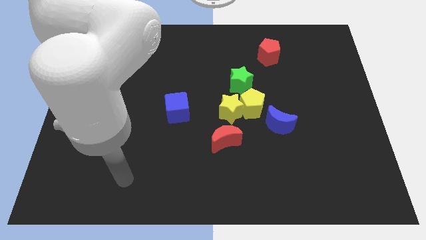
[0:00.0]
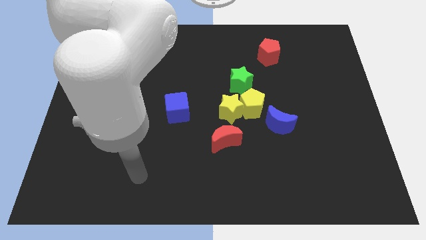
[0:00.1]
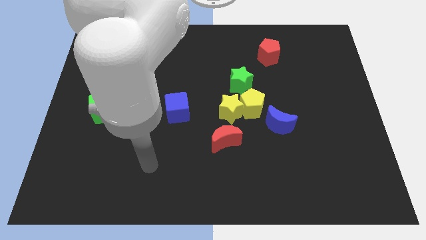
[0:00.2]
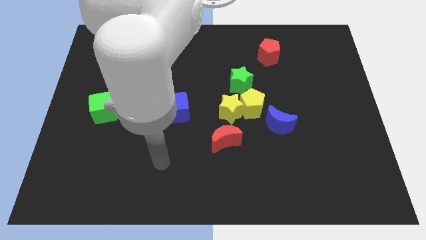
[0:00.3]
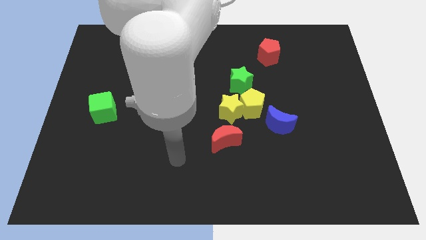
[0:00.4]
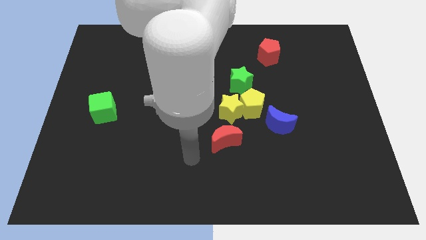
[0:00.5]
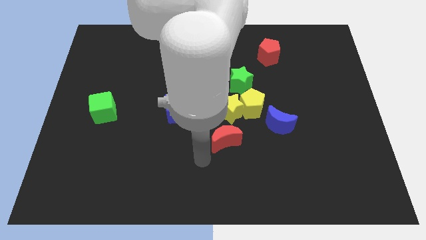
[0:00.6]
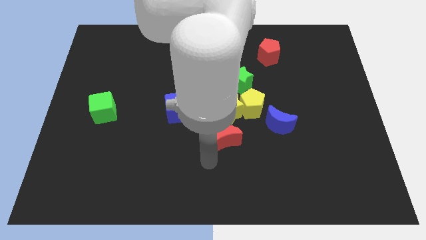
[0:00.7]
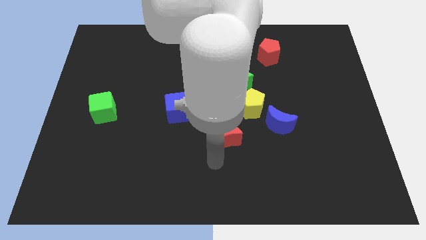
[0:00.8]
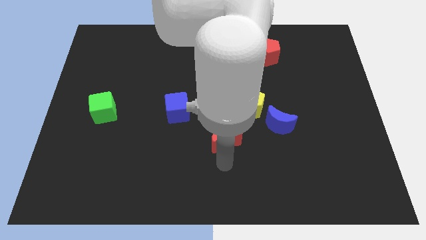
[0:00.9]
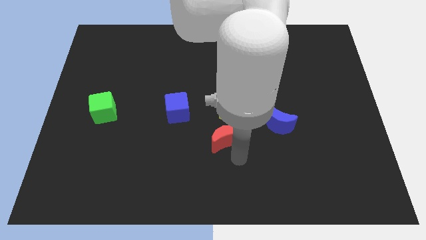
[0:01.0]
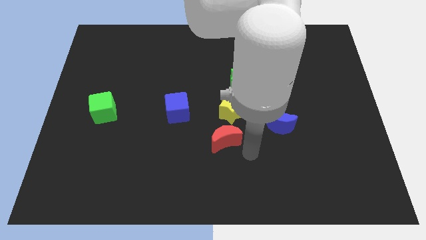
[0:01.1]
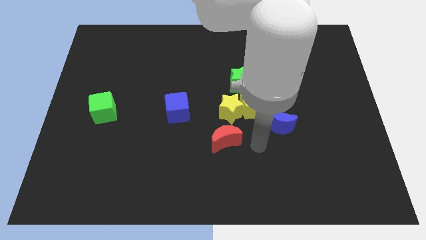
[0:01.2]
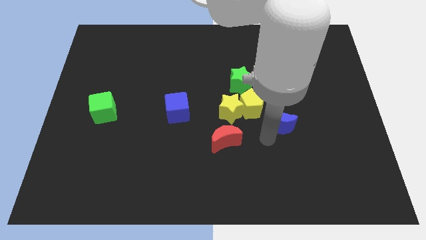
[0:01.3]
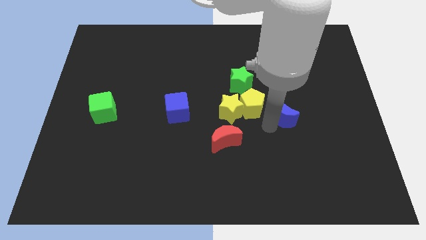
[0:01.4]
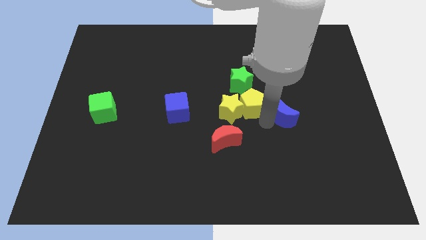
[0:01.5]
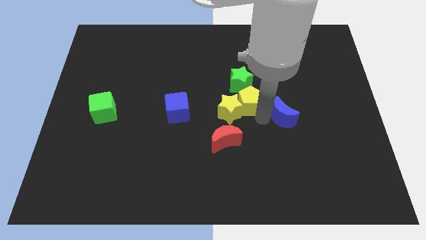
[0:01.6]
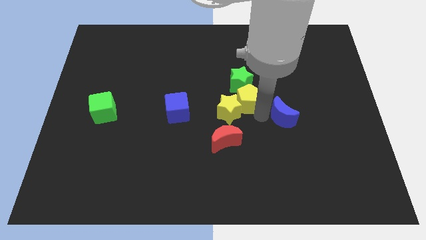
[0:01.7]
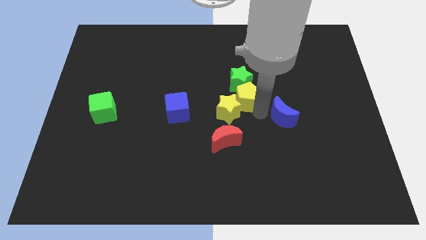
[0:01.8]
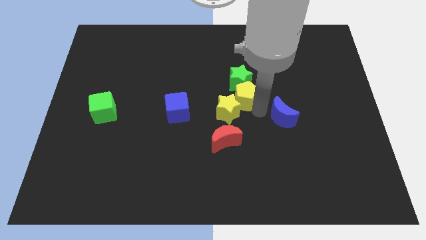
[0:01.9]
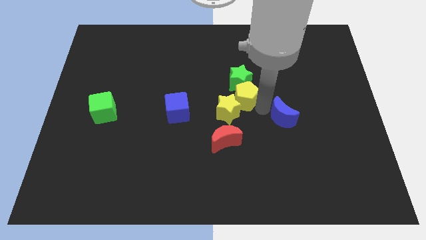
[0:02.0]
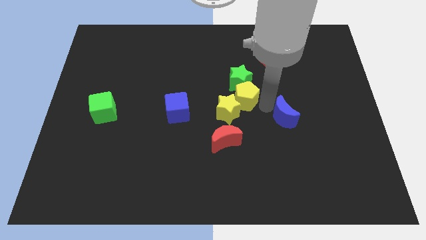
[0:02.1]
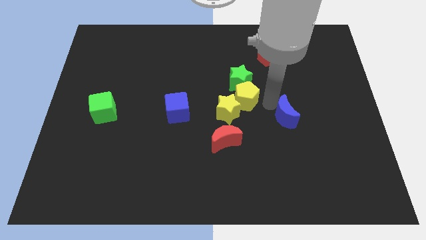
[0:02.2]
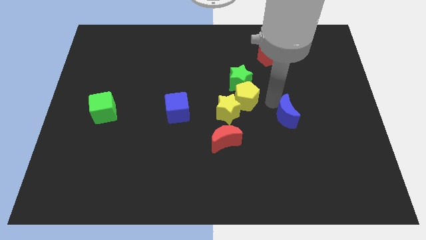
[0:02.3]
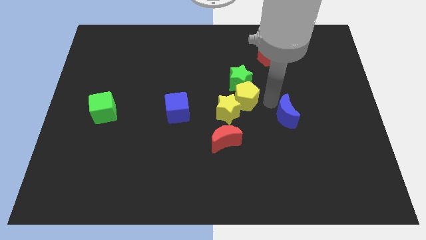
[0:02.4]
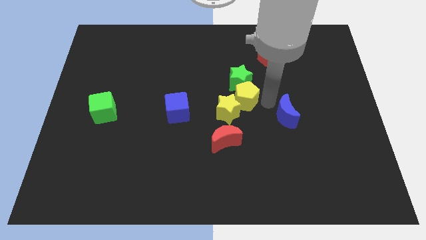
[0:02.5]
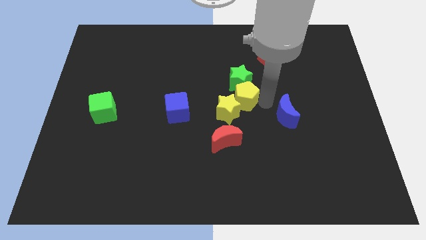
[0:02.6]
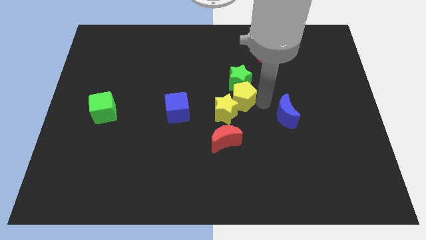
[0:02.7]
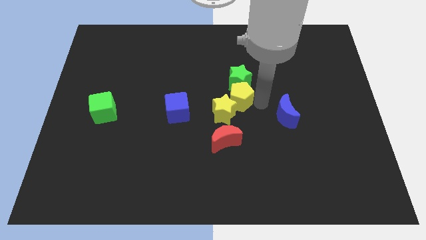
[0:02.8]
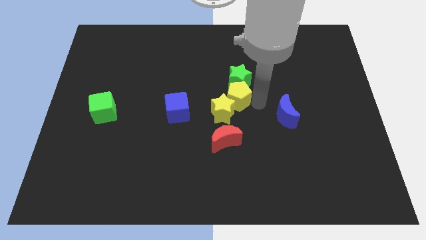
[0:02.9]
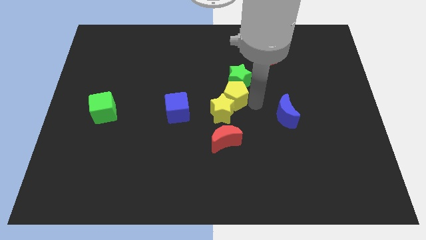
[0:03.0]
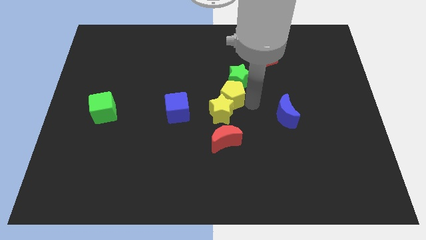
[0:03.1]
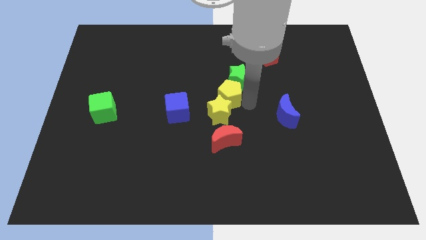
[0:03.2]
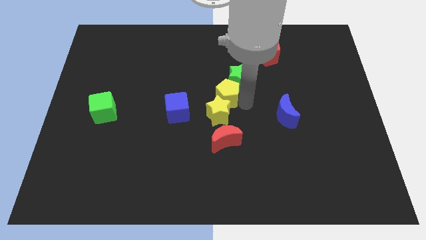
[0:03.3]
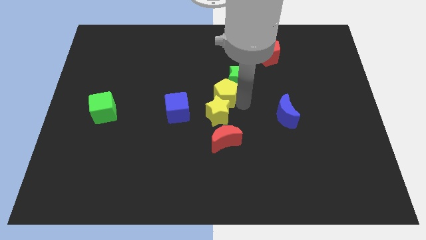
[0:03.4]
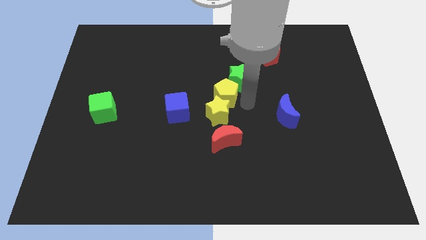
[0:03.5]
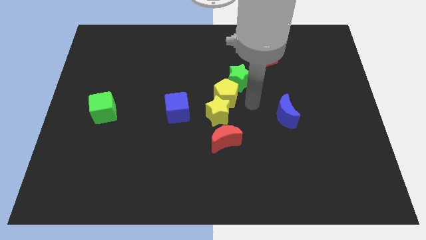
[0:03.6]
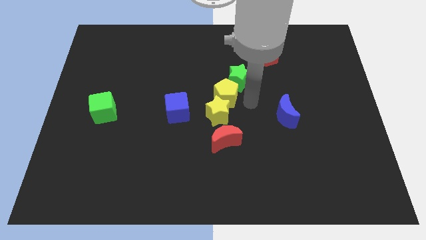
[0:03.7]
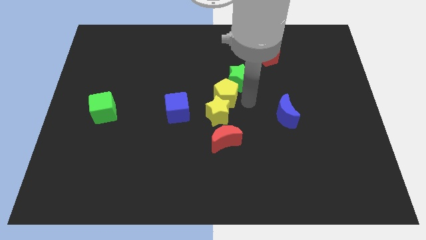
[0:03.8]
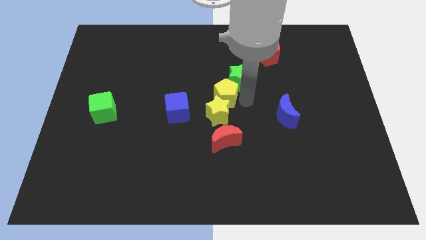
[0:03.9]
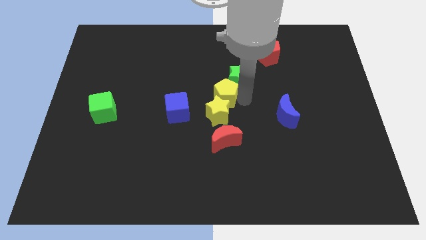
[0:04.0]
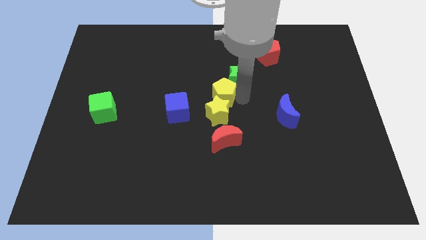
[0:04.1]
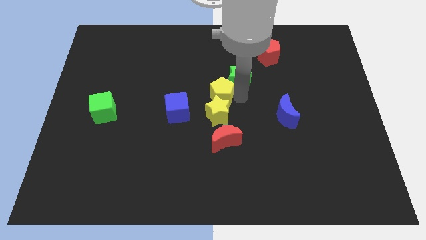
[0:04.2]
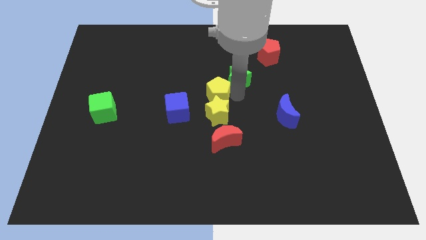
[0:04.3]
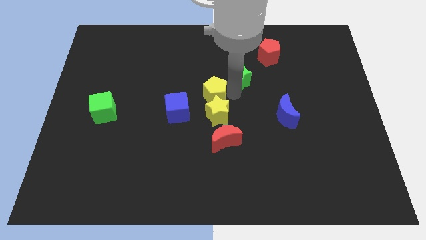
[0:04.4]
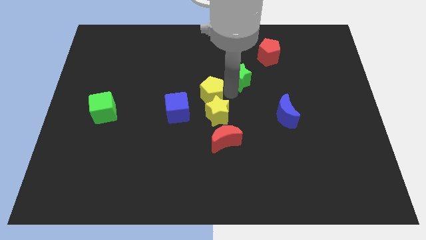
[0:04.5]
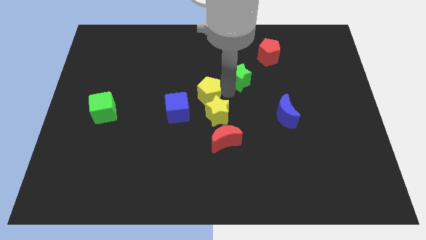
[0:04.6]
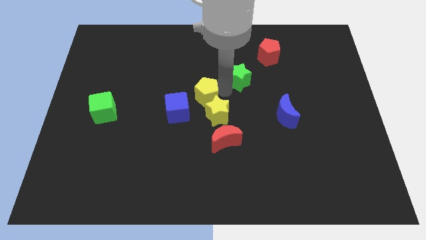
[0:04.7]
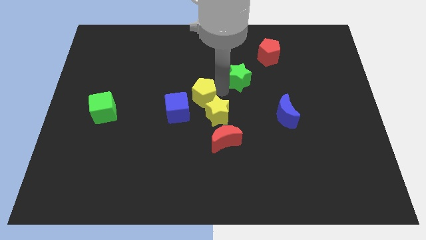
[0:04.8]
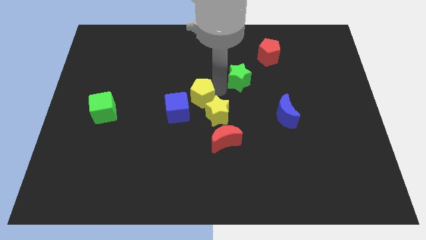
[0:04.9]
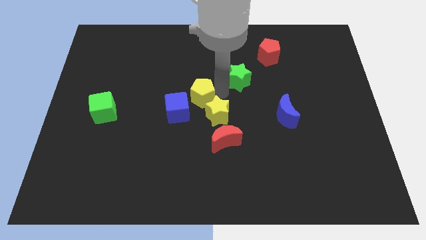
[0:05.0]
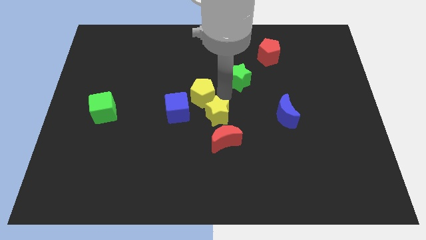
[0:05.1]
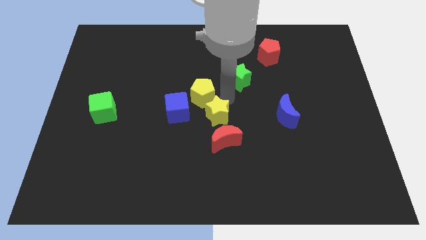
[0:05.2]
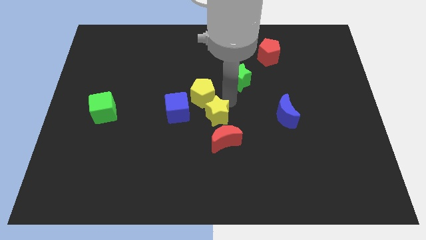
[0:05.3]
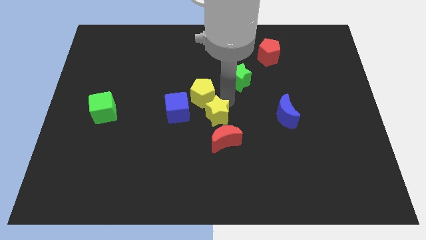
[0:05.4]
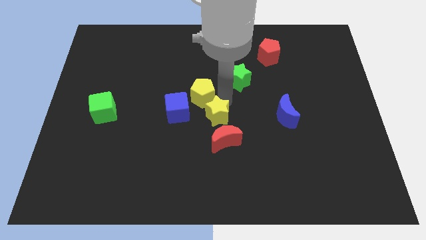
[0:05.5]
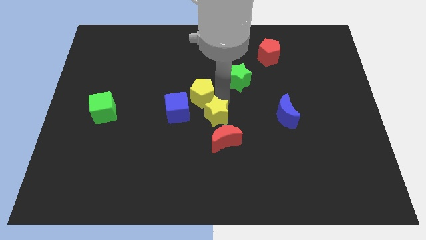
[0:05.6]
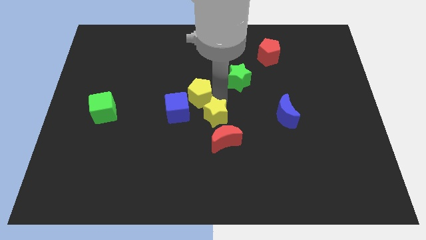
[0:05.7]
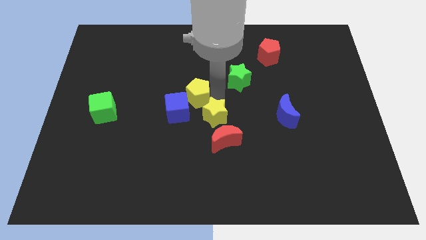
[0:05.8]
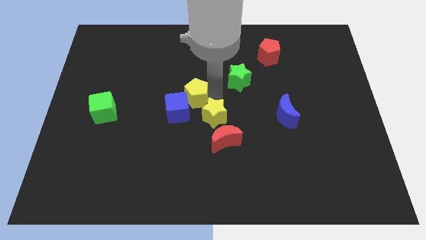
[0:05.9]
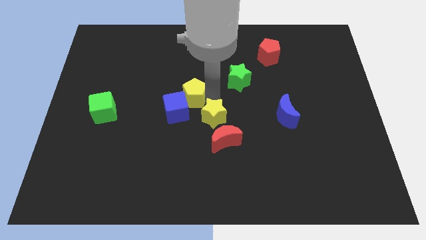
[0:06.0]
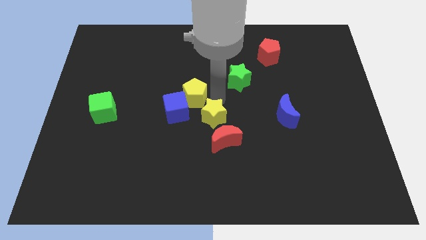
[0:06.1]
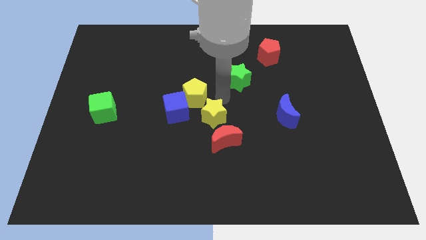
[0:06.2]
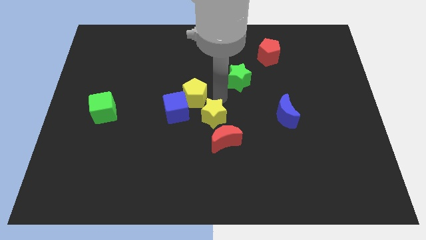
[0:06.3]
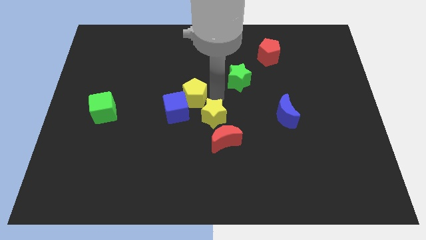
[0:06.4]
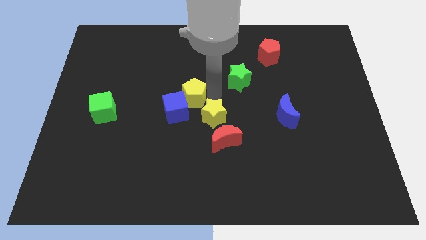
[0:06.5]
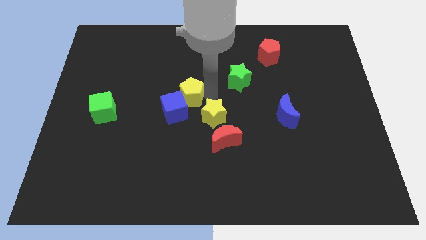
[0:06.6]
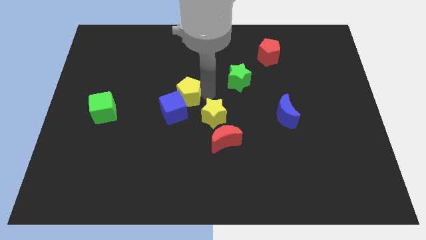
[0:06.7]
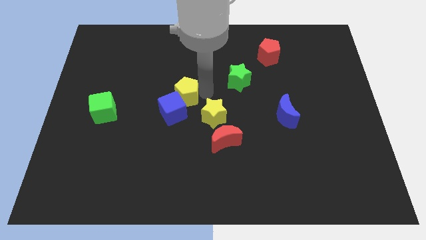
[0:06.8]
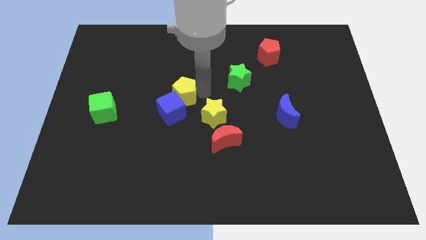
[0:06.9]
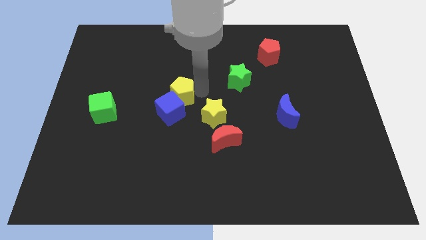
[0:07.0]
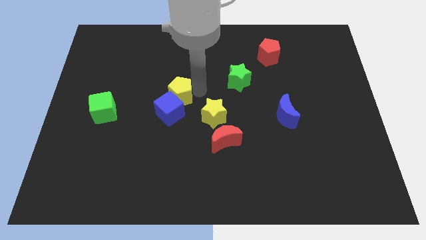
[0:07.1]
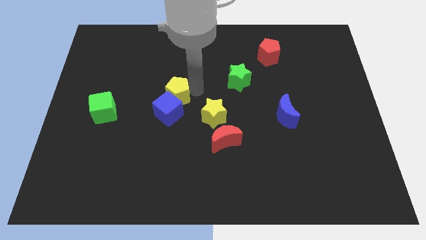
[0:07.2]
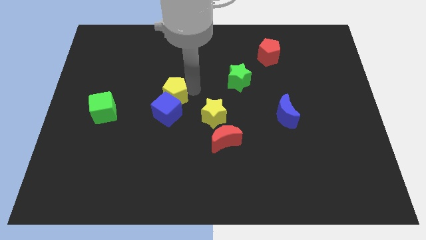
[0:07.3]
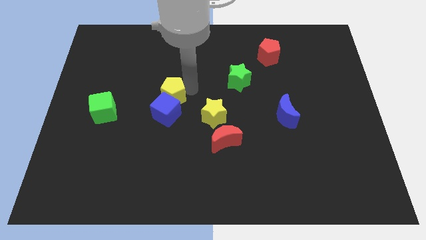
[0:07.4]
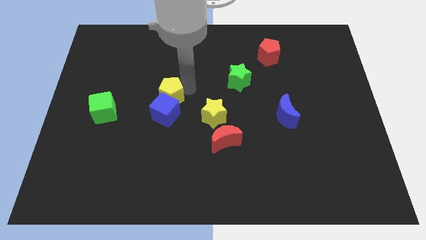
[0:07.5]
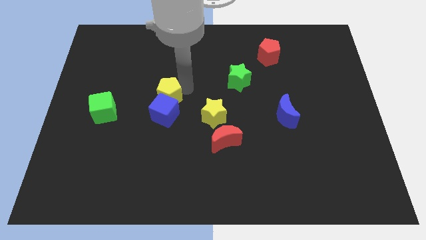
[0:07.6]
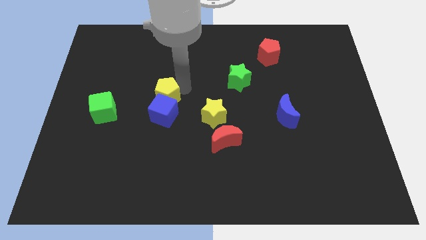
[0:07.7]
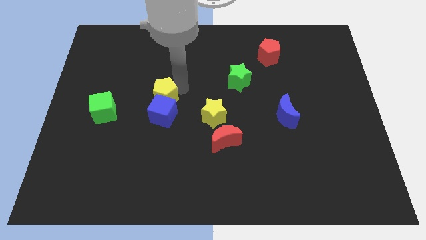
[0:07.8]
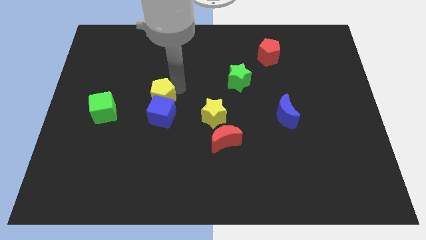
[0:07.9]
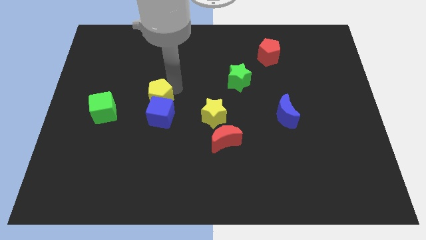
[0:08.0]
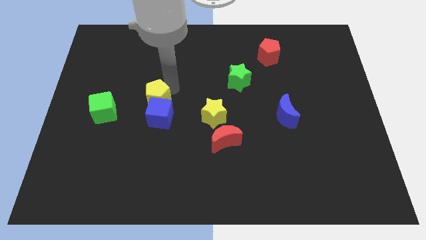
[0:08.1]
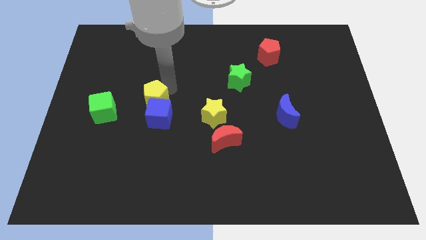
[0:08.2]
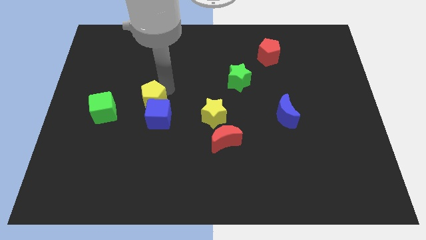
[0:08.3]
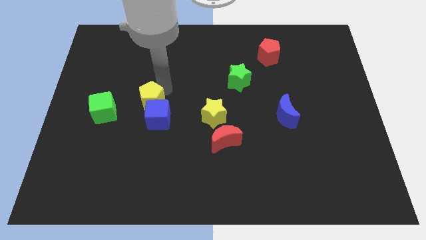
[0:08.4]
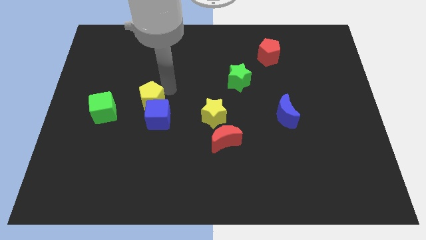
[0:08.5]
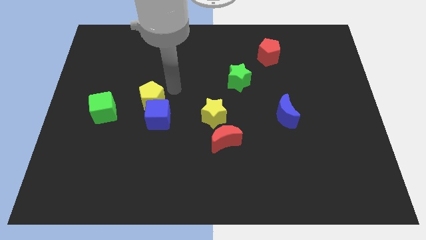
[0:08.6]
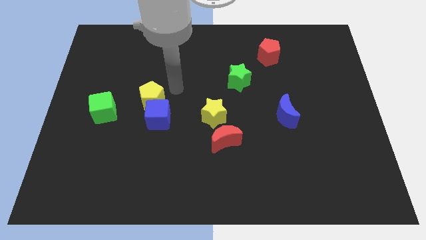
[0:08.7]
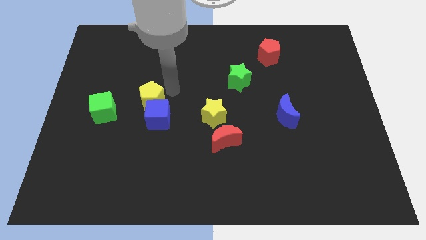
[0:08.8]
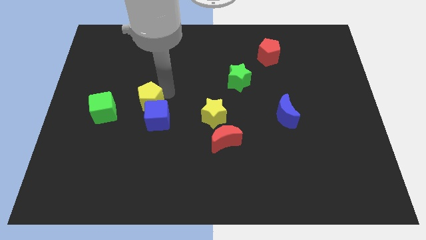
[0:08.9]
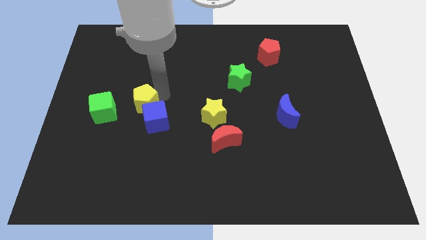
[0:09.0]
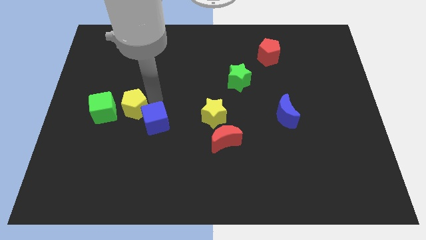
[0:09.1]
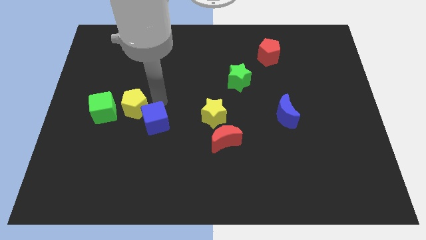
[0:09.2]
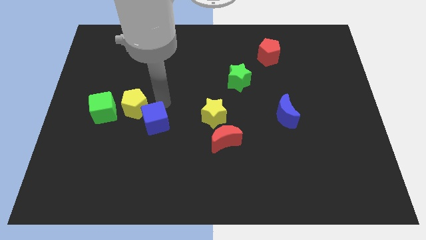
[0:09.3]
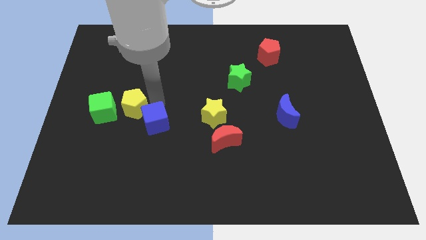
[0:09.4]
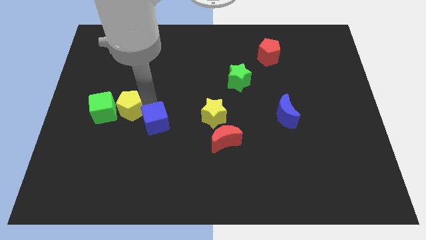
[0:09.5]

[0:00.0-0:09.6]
slide the yellow pentagon towards the green cube
